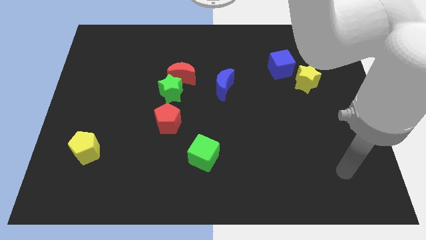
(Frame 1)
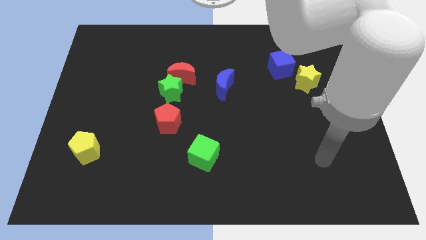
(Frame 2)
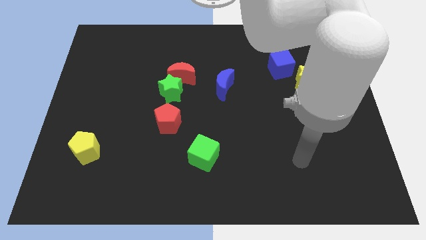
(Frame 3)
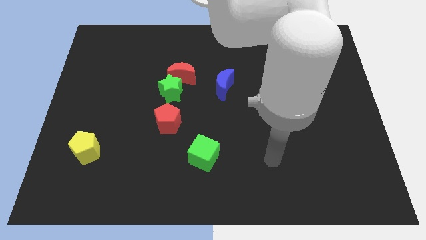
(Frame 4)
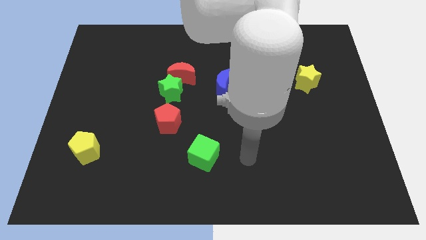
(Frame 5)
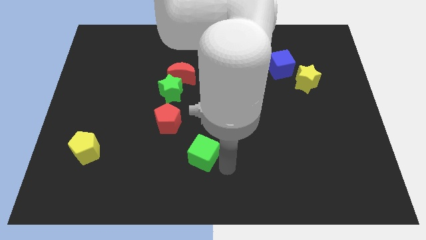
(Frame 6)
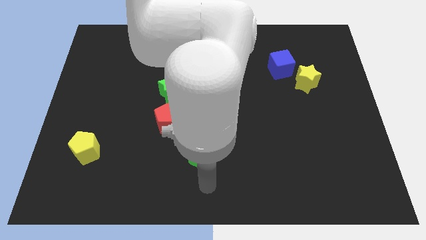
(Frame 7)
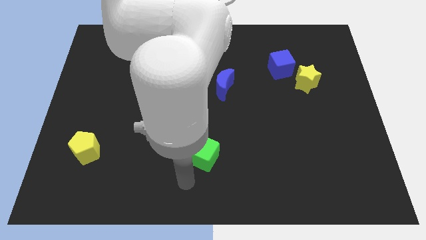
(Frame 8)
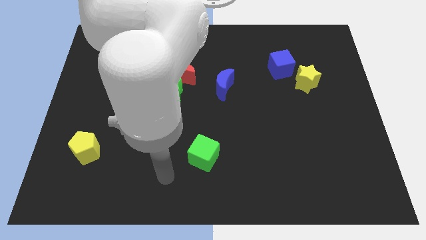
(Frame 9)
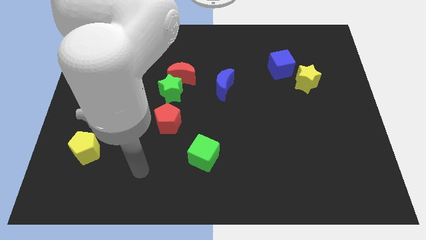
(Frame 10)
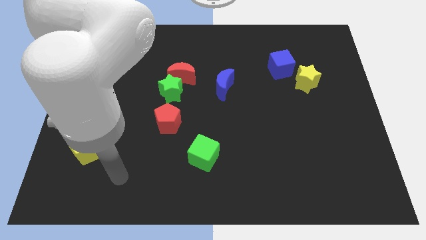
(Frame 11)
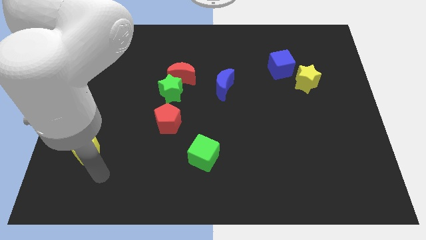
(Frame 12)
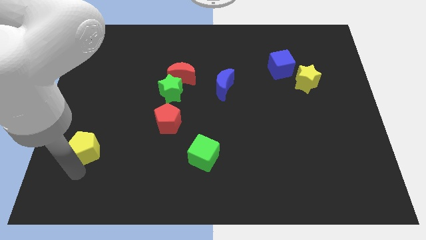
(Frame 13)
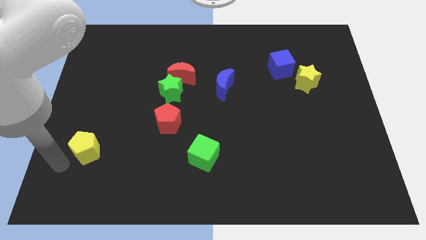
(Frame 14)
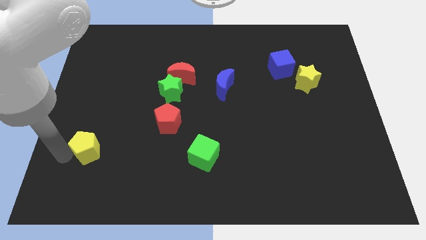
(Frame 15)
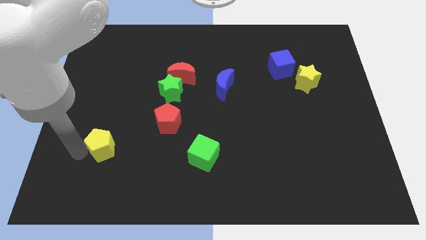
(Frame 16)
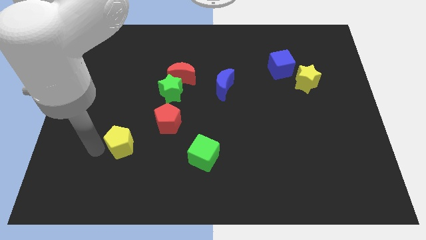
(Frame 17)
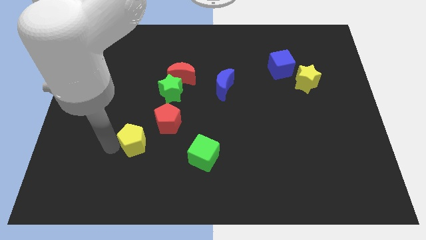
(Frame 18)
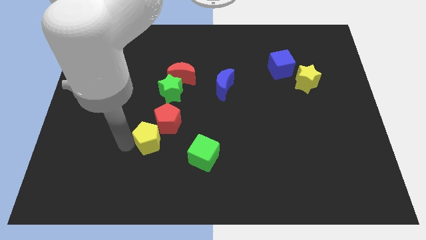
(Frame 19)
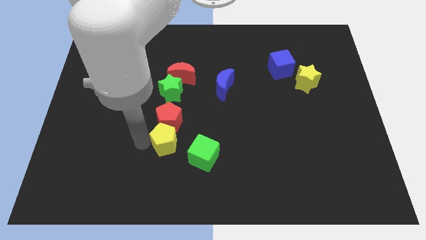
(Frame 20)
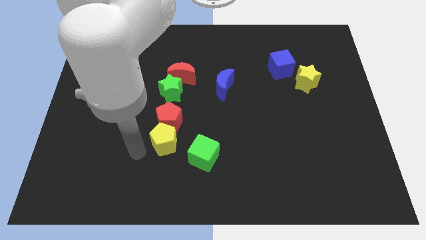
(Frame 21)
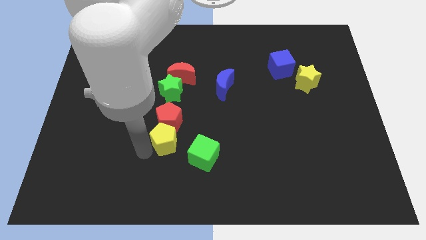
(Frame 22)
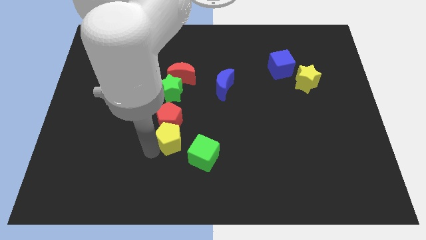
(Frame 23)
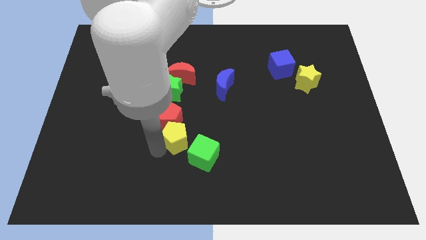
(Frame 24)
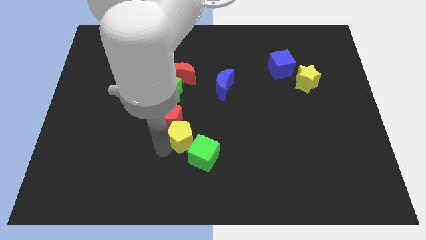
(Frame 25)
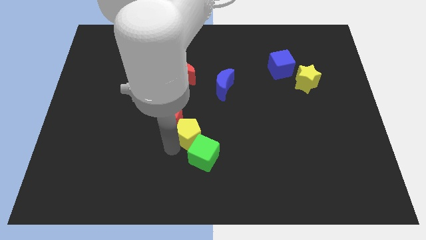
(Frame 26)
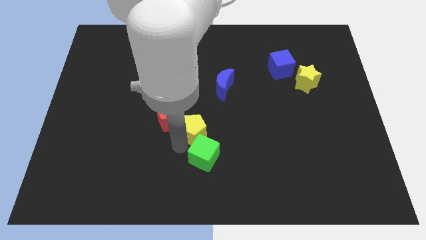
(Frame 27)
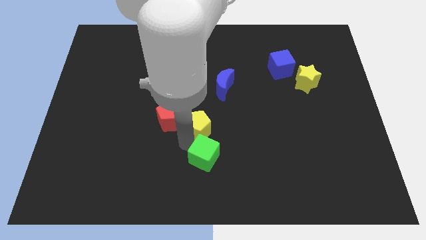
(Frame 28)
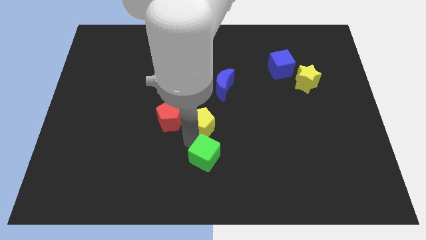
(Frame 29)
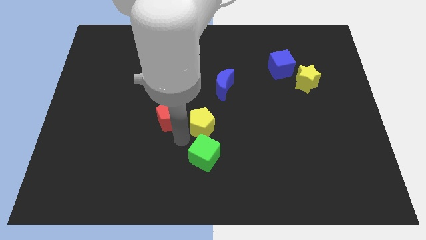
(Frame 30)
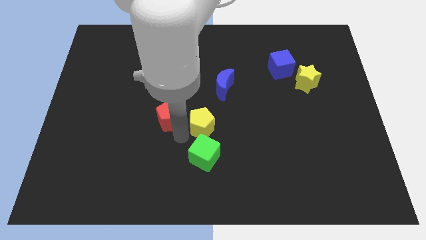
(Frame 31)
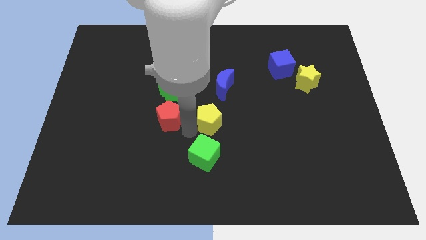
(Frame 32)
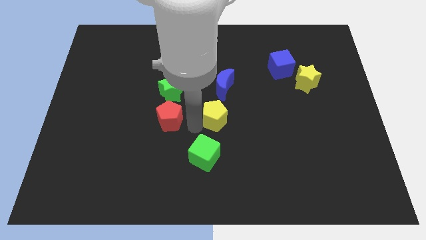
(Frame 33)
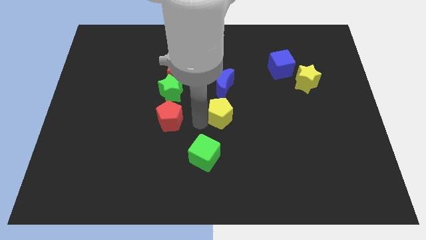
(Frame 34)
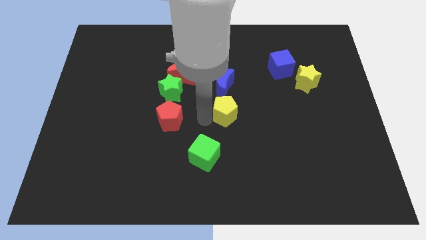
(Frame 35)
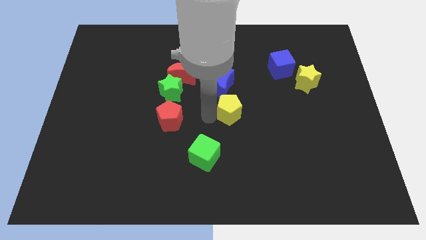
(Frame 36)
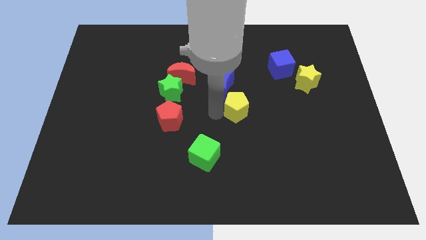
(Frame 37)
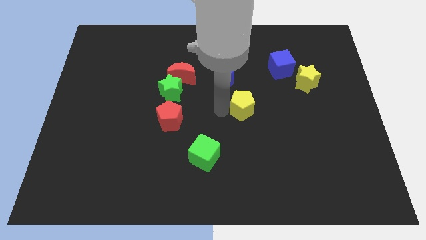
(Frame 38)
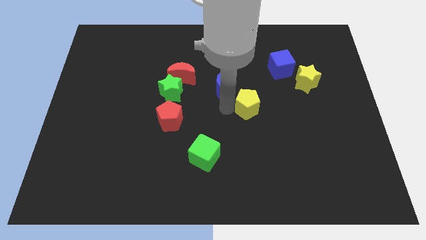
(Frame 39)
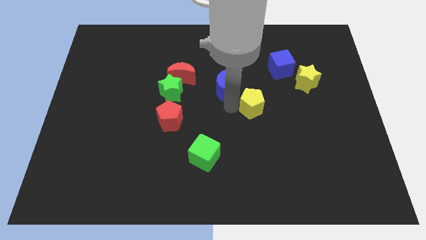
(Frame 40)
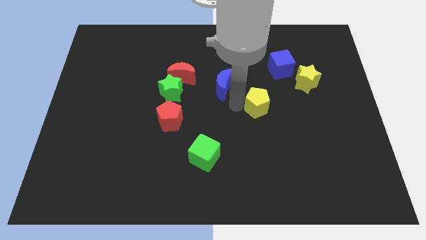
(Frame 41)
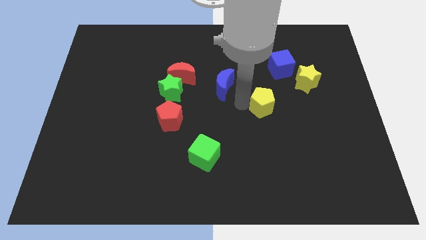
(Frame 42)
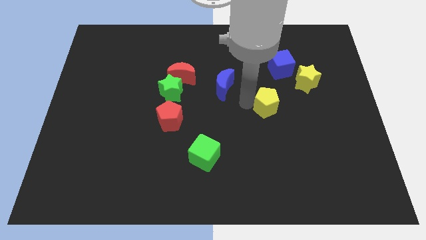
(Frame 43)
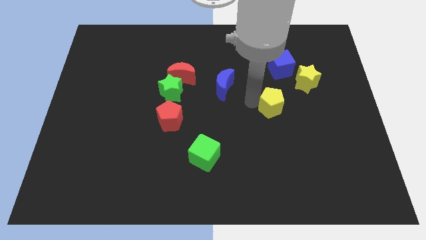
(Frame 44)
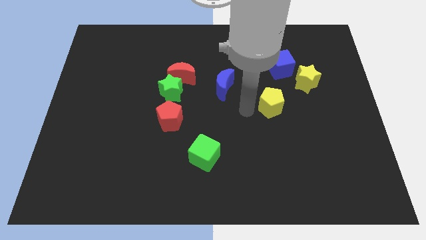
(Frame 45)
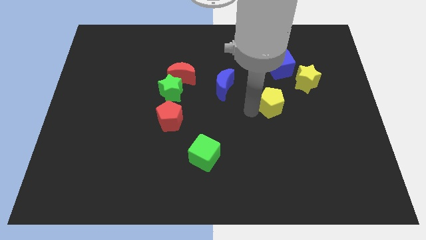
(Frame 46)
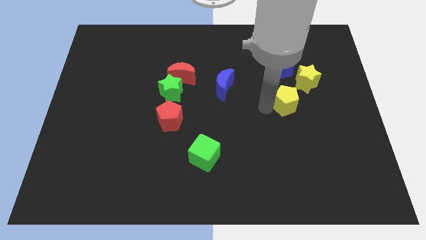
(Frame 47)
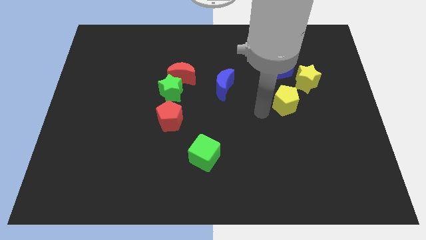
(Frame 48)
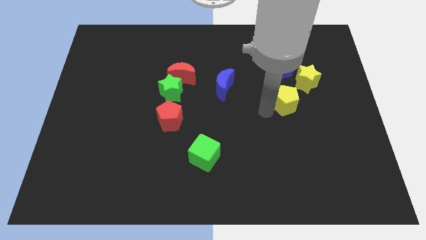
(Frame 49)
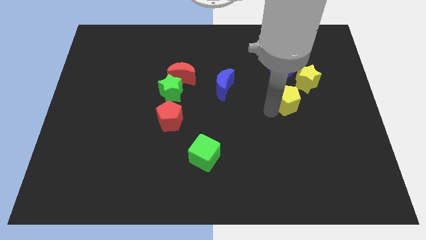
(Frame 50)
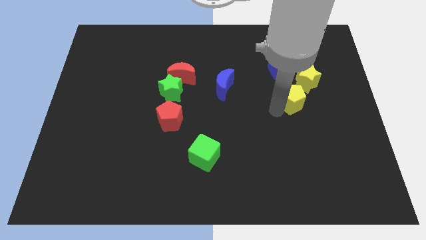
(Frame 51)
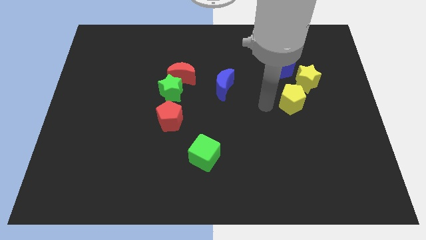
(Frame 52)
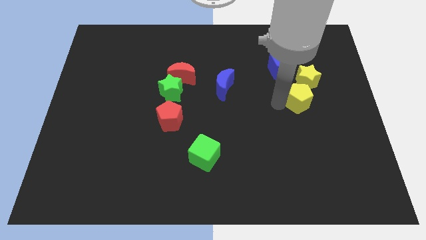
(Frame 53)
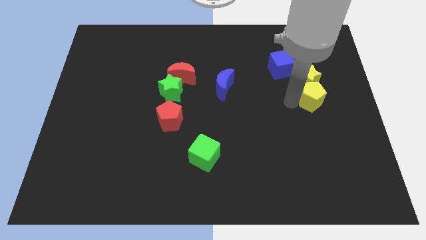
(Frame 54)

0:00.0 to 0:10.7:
slide the yellow pentagon diagonally down and to the right of the yellow star

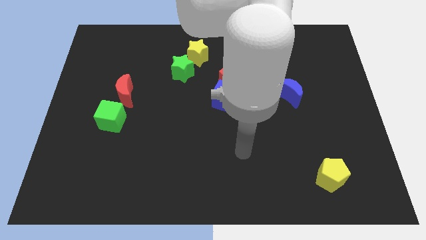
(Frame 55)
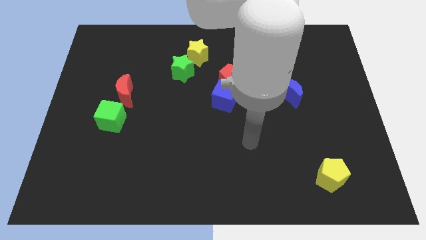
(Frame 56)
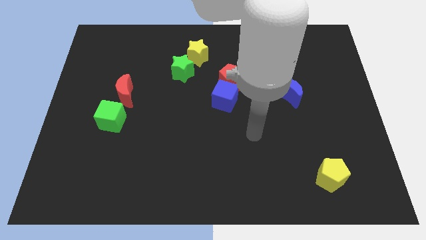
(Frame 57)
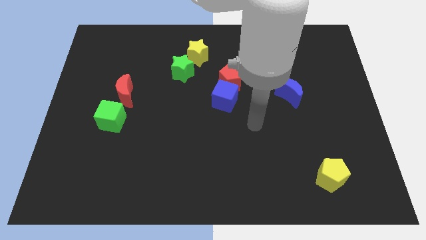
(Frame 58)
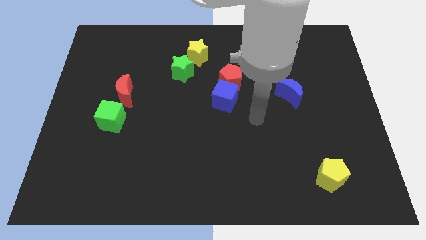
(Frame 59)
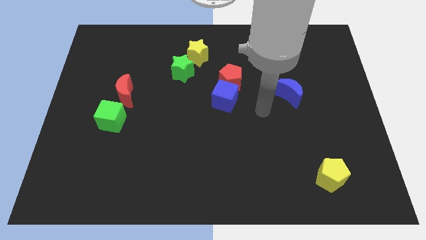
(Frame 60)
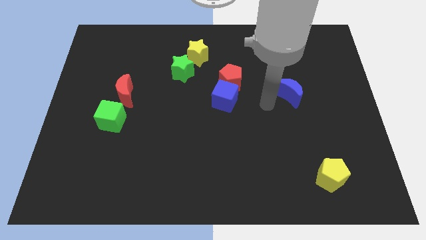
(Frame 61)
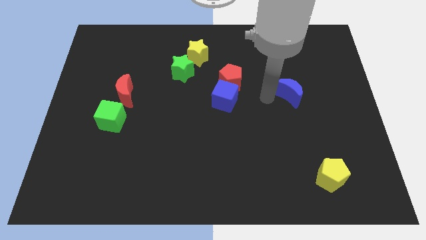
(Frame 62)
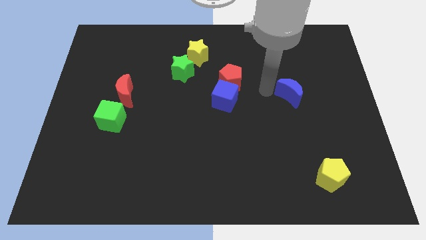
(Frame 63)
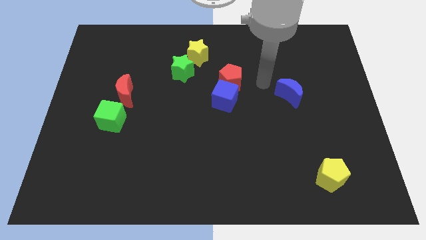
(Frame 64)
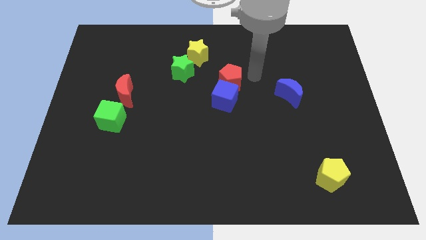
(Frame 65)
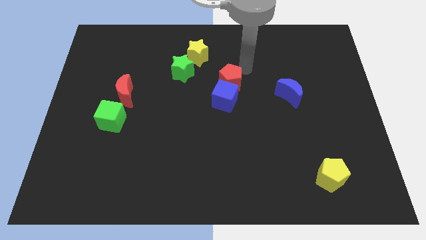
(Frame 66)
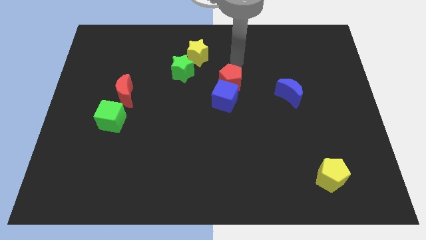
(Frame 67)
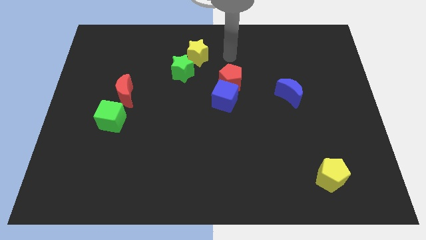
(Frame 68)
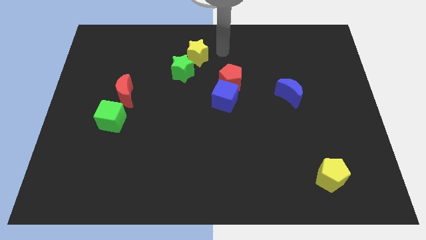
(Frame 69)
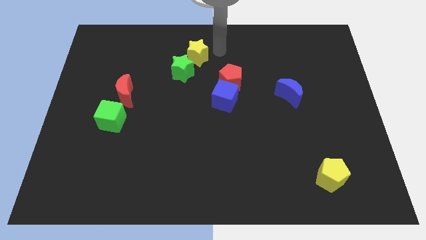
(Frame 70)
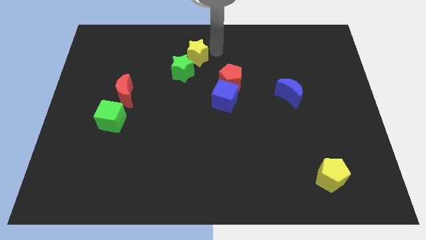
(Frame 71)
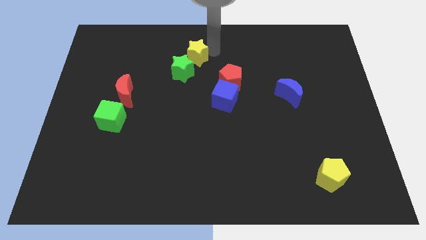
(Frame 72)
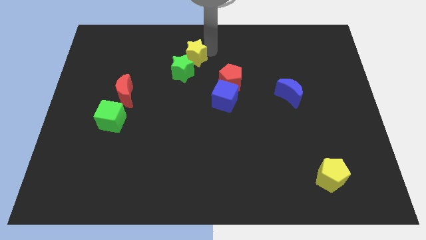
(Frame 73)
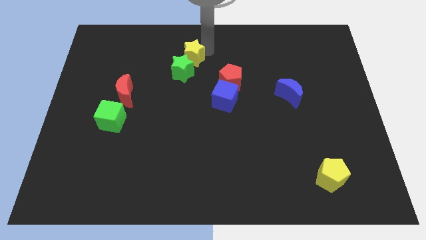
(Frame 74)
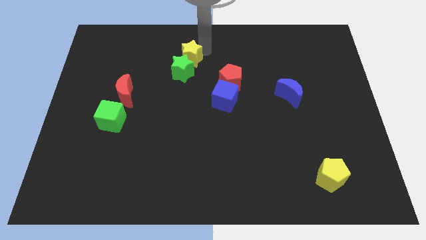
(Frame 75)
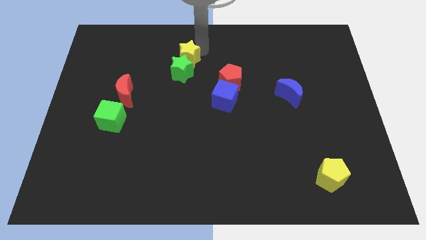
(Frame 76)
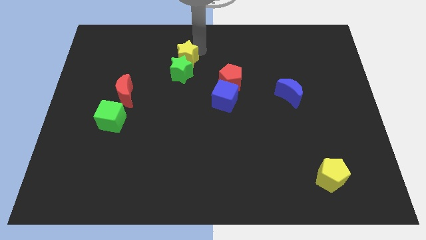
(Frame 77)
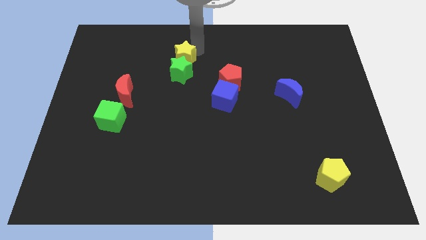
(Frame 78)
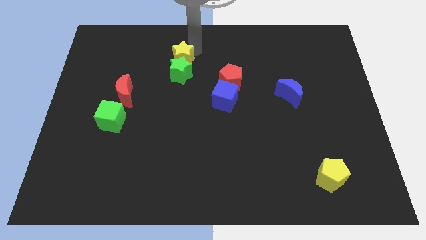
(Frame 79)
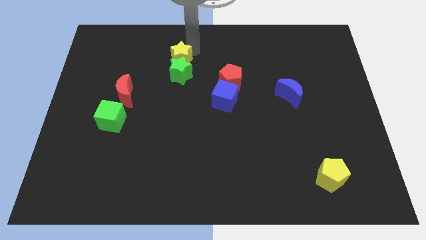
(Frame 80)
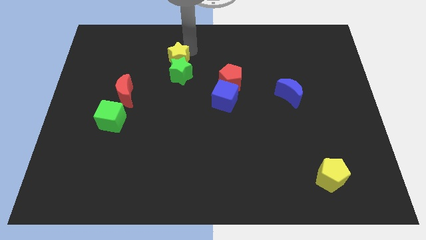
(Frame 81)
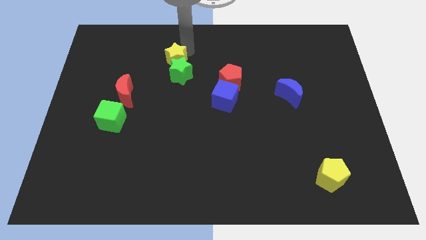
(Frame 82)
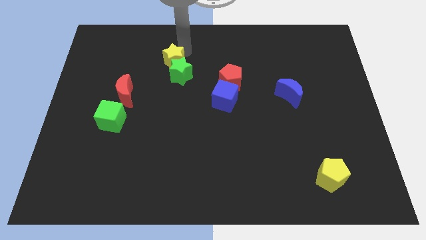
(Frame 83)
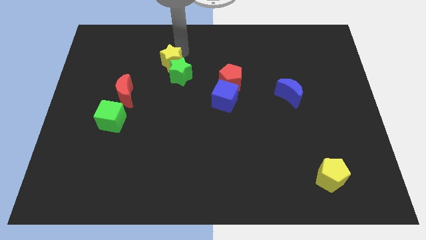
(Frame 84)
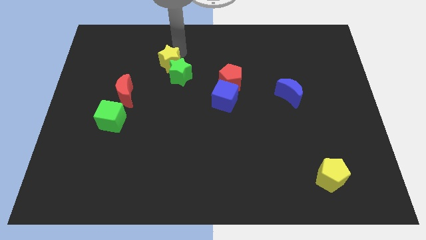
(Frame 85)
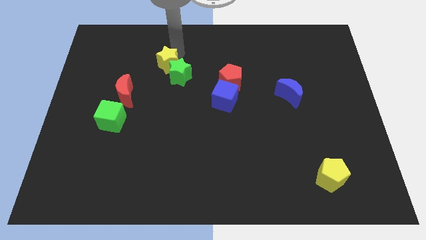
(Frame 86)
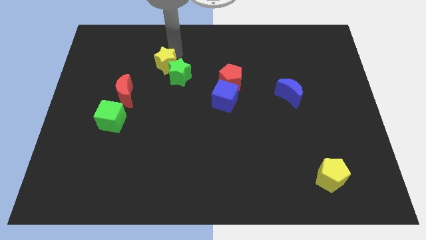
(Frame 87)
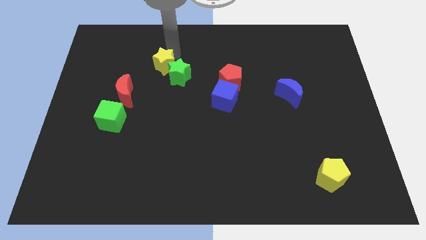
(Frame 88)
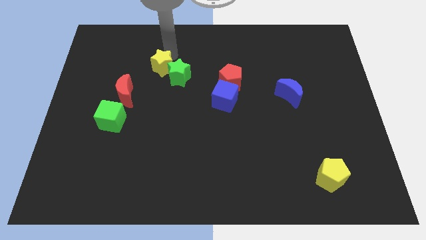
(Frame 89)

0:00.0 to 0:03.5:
put the yellow star to the top right side of the red moon
